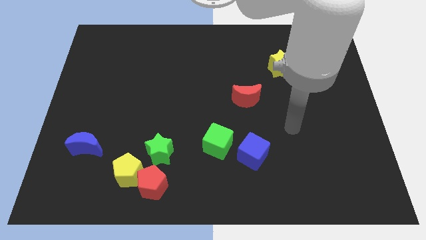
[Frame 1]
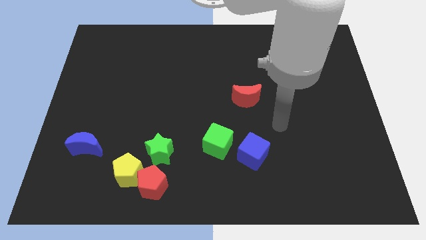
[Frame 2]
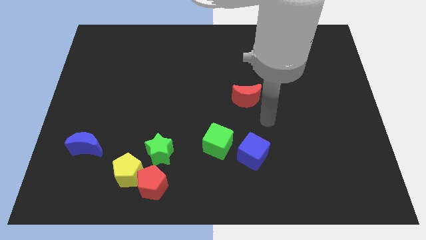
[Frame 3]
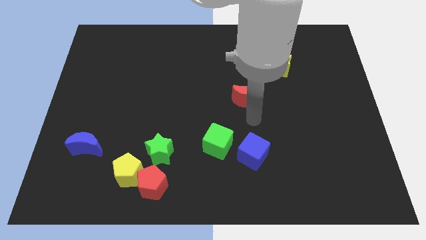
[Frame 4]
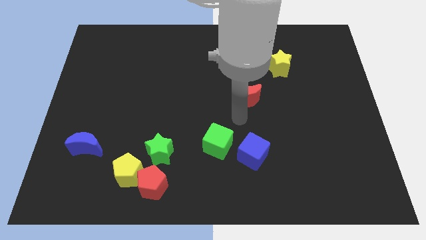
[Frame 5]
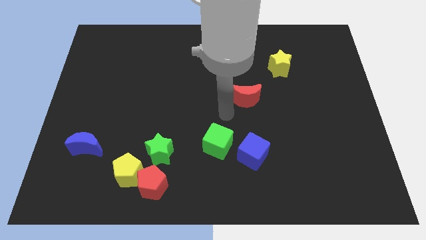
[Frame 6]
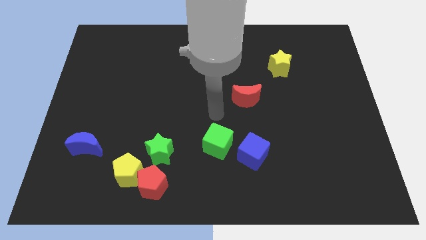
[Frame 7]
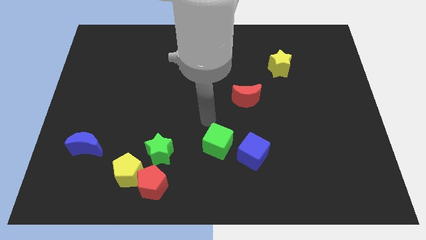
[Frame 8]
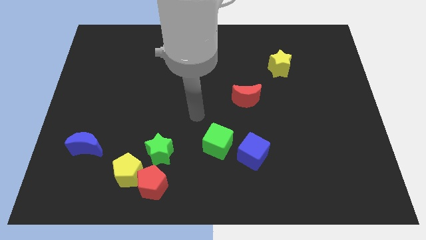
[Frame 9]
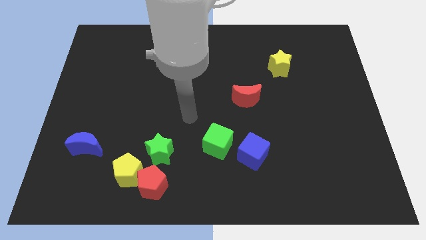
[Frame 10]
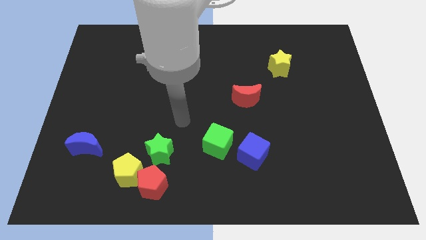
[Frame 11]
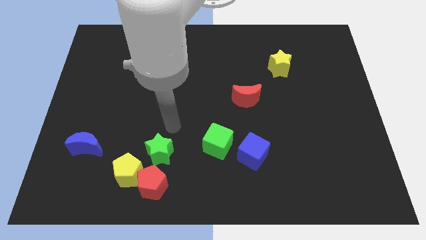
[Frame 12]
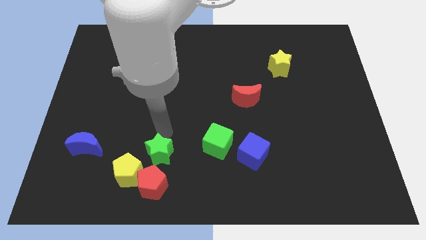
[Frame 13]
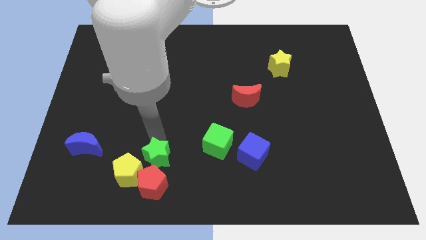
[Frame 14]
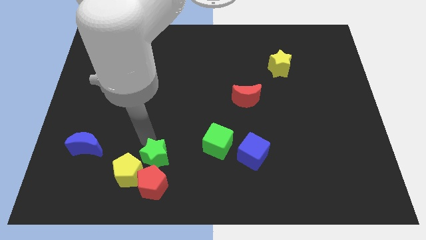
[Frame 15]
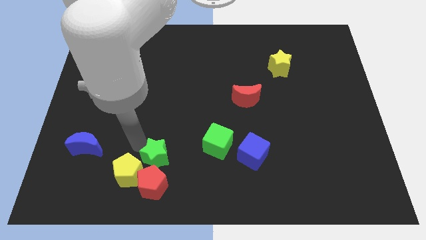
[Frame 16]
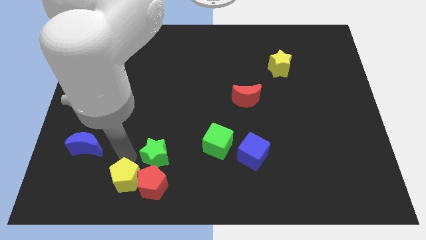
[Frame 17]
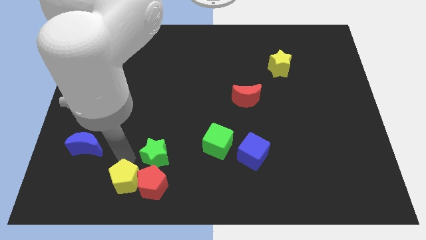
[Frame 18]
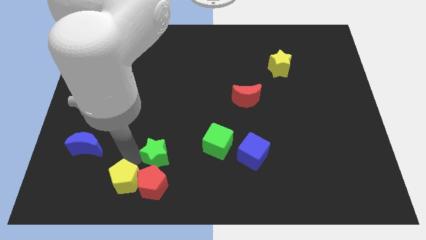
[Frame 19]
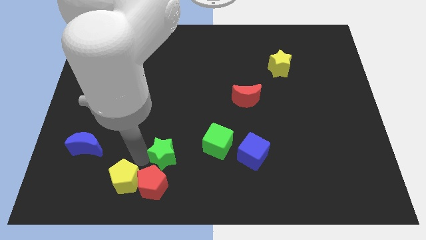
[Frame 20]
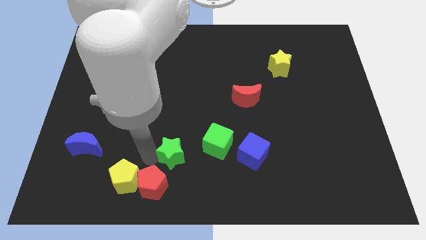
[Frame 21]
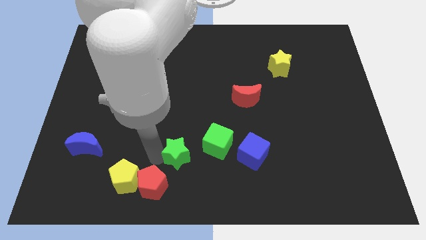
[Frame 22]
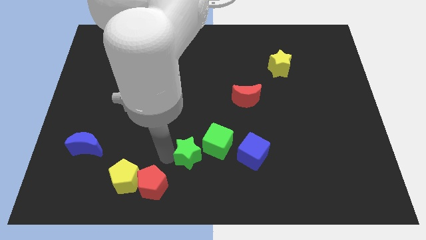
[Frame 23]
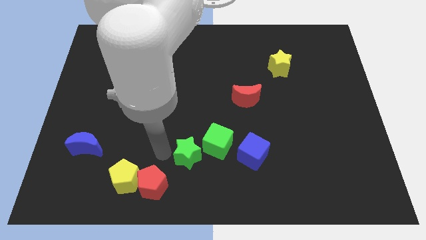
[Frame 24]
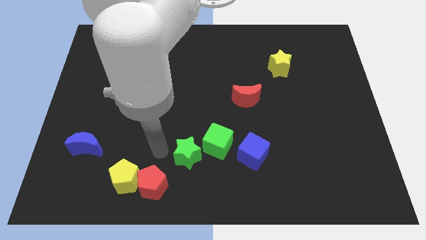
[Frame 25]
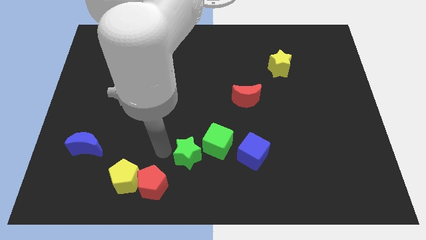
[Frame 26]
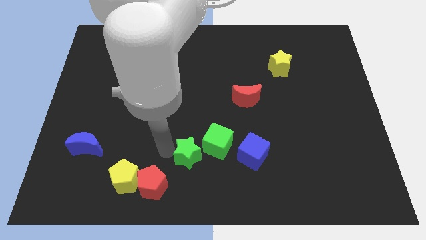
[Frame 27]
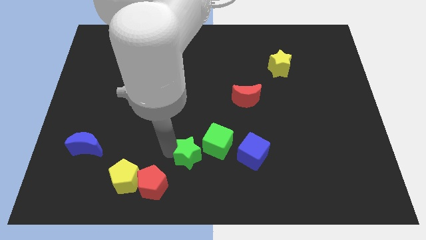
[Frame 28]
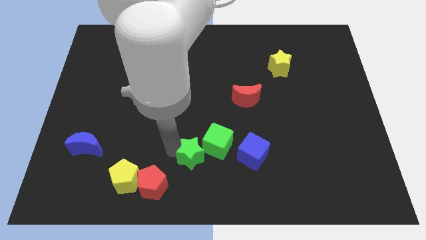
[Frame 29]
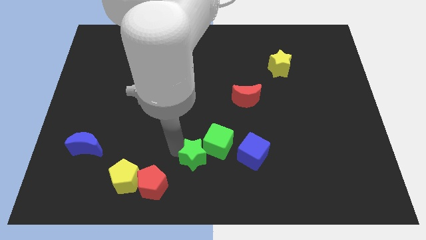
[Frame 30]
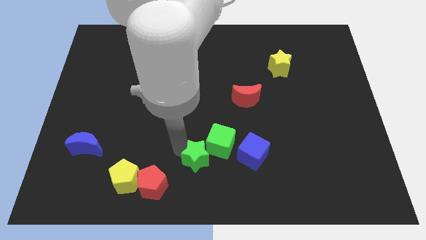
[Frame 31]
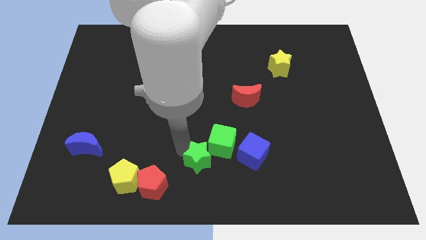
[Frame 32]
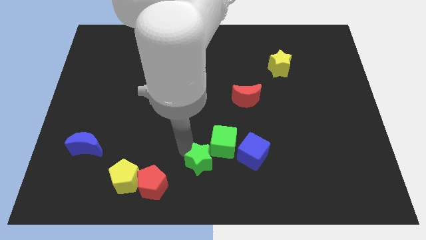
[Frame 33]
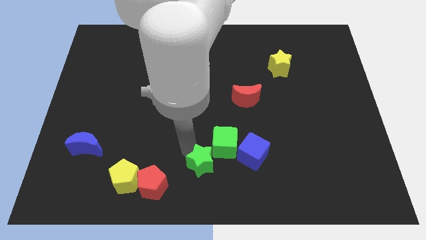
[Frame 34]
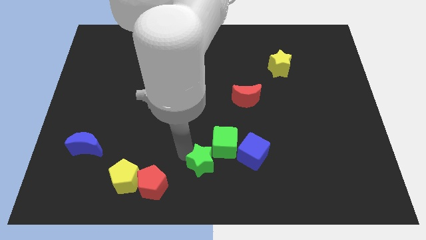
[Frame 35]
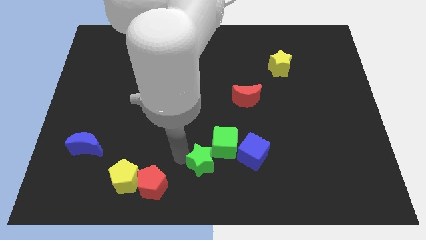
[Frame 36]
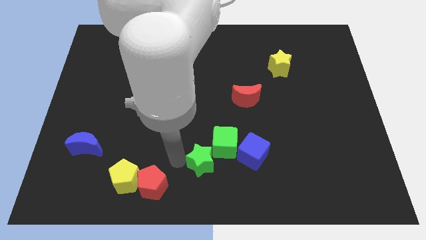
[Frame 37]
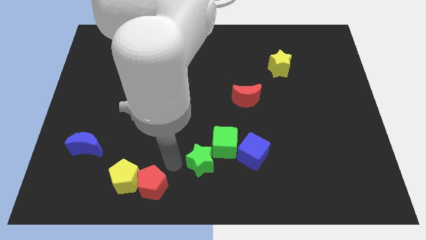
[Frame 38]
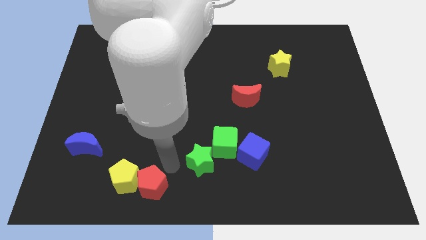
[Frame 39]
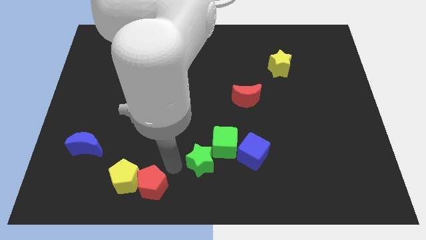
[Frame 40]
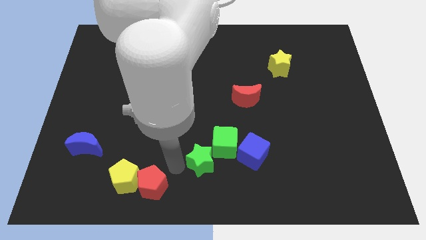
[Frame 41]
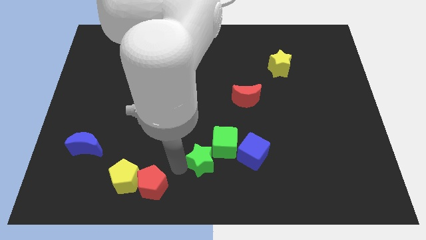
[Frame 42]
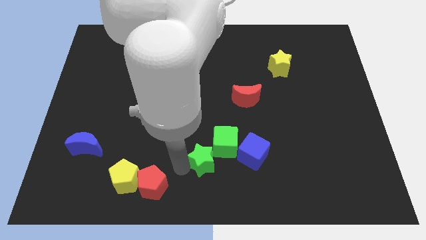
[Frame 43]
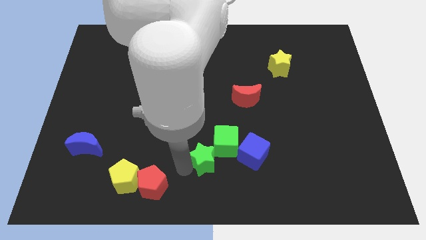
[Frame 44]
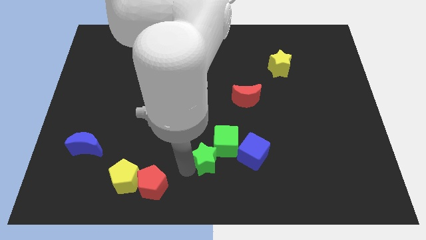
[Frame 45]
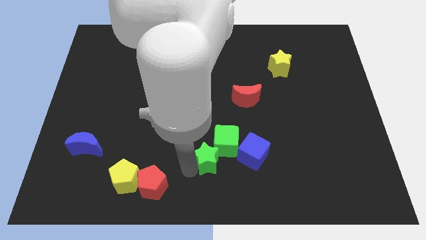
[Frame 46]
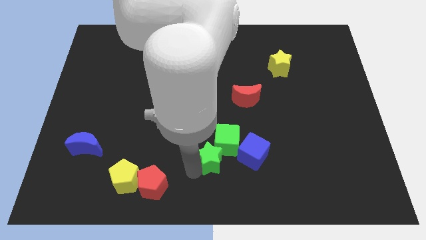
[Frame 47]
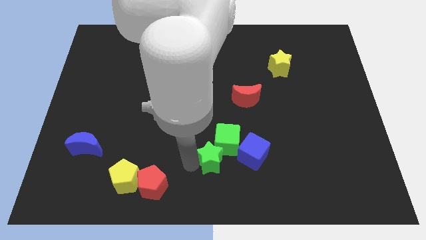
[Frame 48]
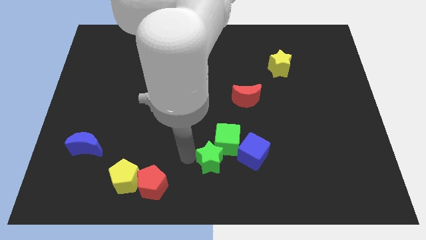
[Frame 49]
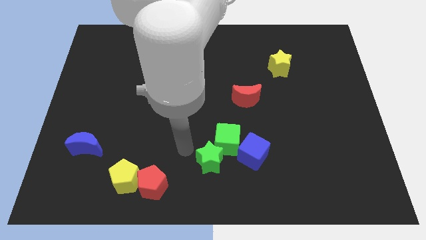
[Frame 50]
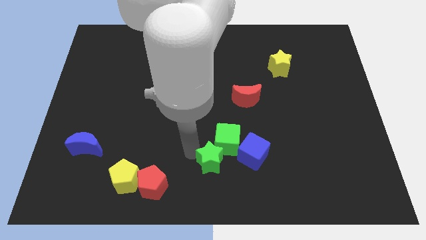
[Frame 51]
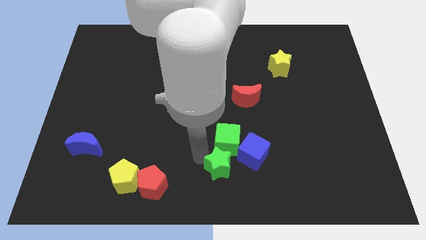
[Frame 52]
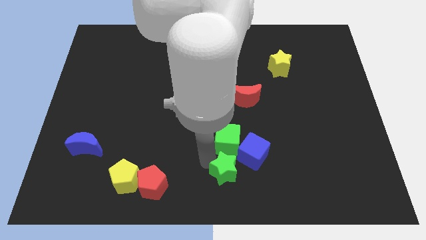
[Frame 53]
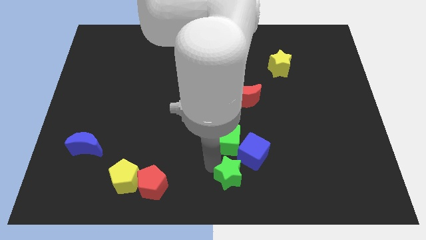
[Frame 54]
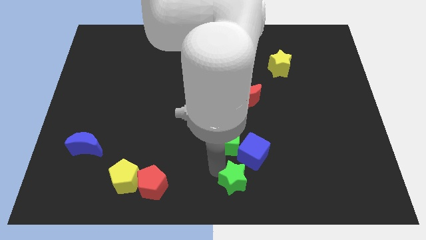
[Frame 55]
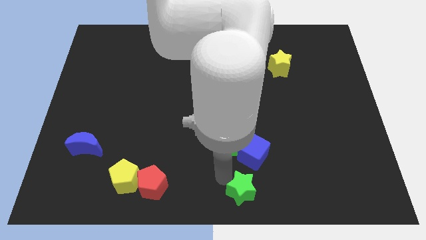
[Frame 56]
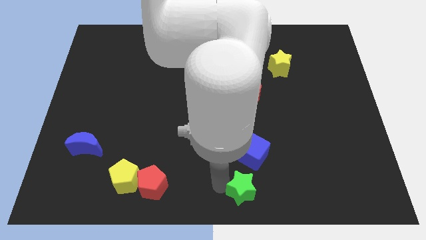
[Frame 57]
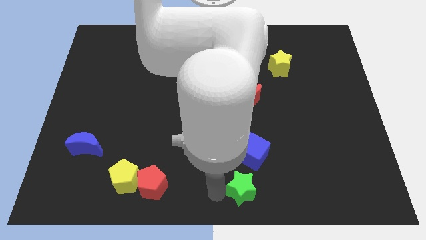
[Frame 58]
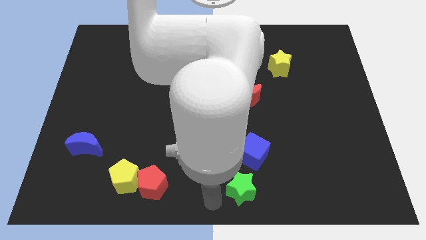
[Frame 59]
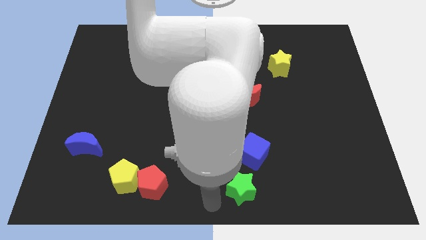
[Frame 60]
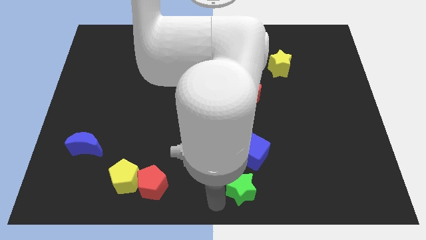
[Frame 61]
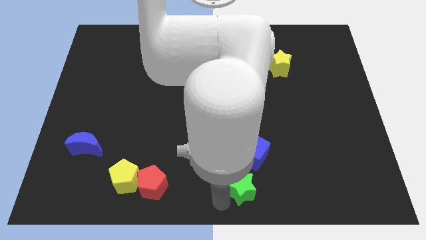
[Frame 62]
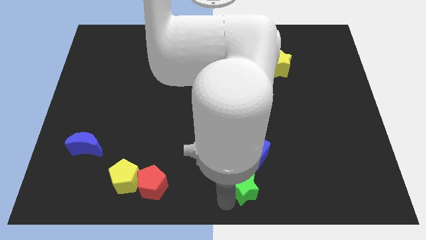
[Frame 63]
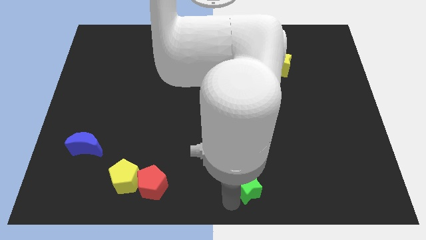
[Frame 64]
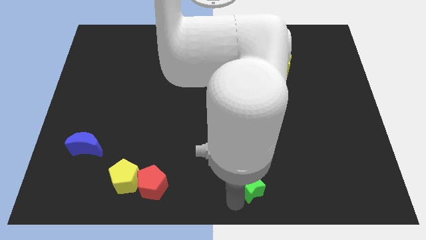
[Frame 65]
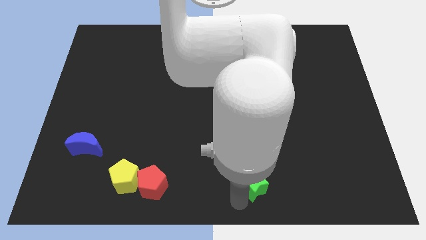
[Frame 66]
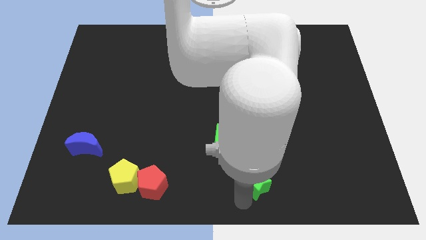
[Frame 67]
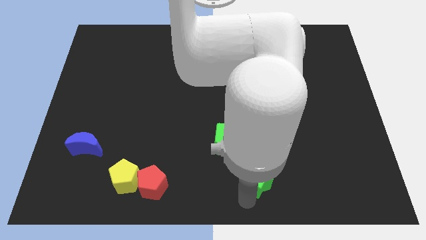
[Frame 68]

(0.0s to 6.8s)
push the green star to the bottom right side of the blue cube
